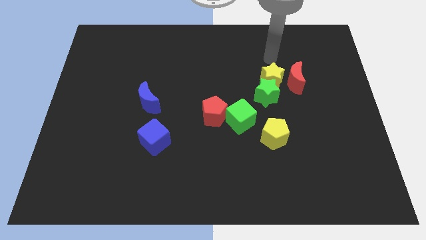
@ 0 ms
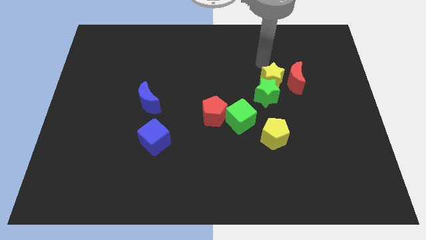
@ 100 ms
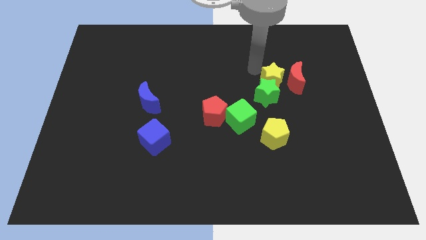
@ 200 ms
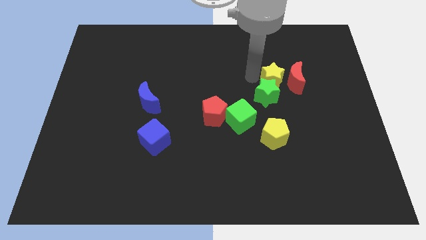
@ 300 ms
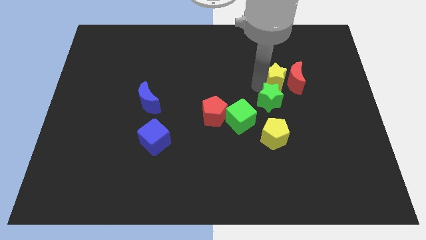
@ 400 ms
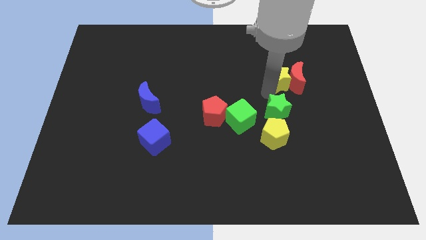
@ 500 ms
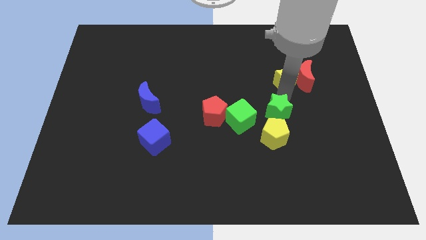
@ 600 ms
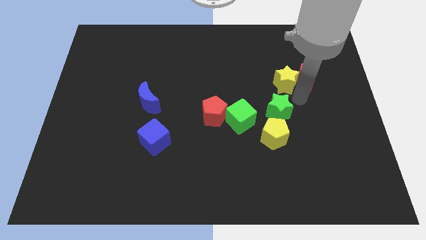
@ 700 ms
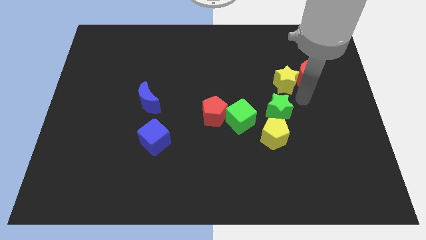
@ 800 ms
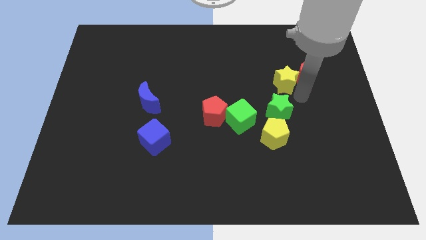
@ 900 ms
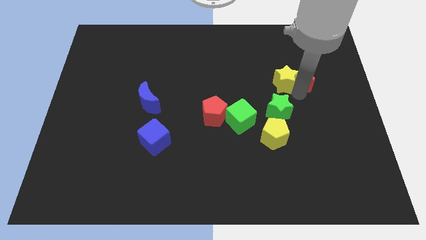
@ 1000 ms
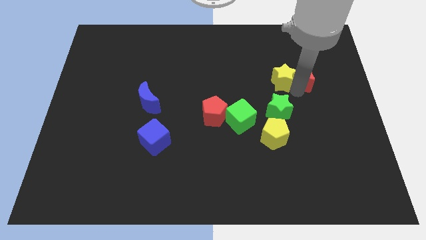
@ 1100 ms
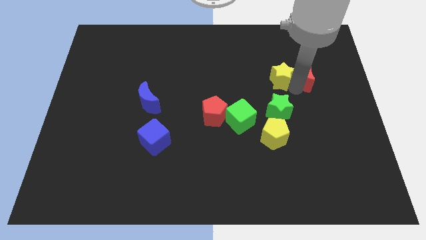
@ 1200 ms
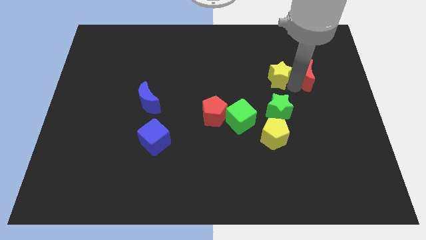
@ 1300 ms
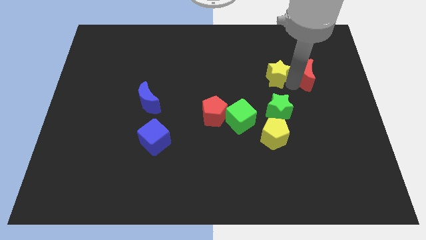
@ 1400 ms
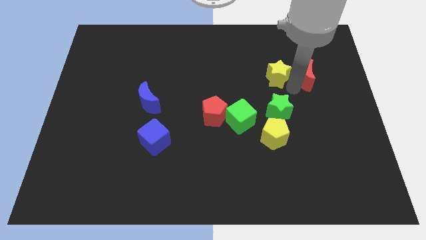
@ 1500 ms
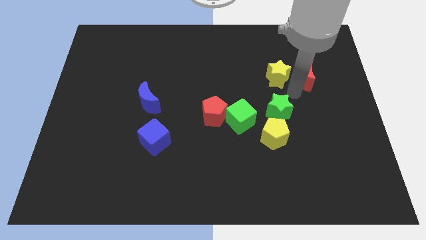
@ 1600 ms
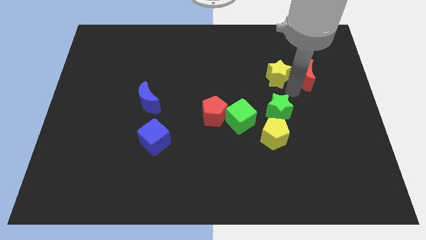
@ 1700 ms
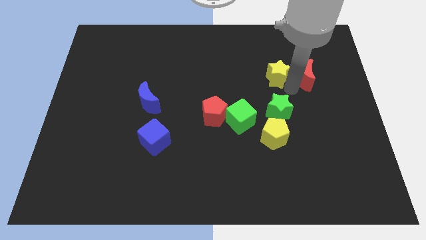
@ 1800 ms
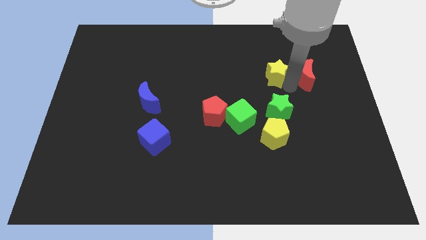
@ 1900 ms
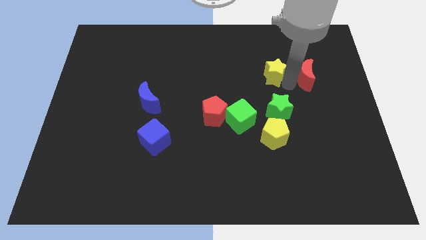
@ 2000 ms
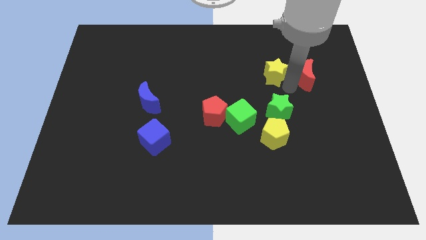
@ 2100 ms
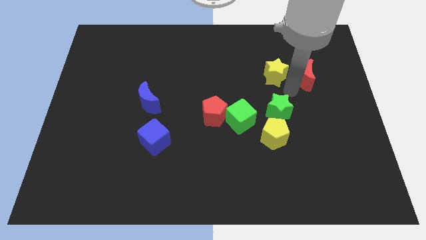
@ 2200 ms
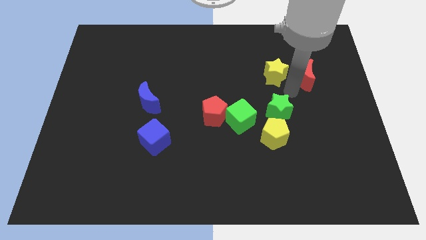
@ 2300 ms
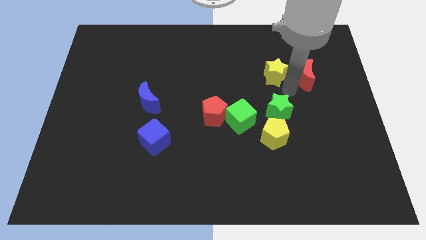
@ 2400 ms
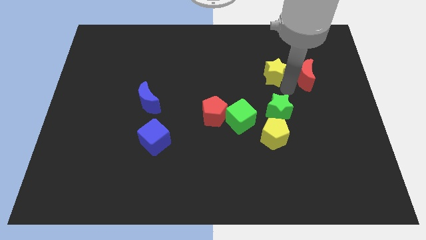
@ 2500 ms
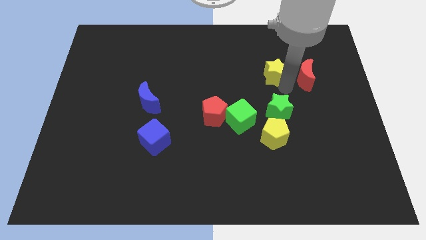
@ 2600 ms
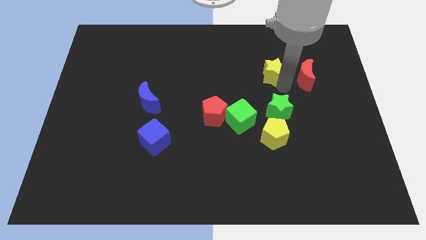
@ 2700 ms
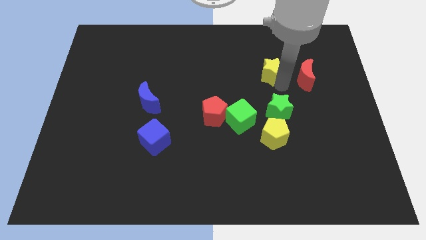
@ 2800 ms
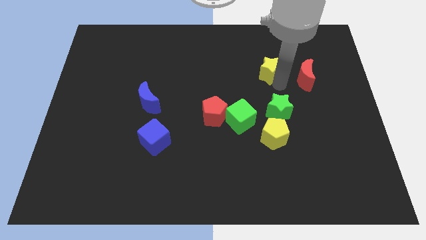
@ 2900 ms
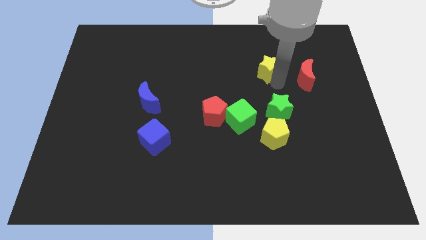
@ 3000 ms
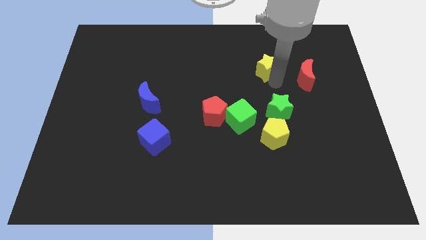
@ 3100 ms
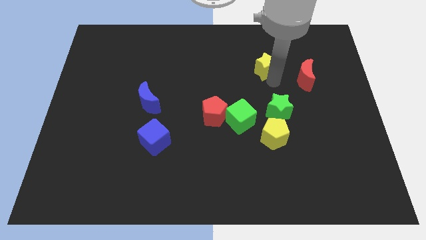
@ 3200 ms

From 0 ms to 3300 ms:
separate the yellow star from the red moon and green star

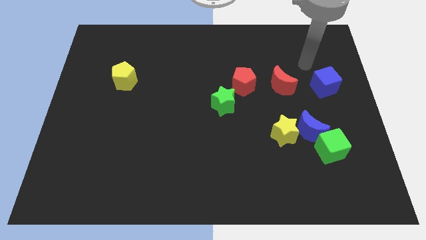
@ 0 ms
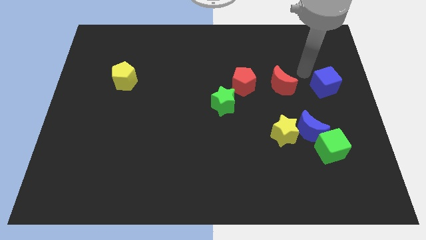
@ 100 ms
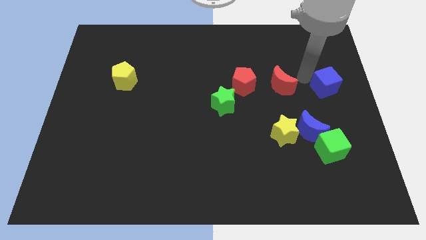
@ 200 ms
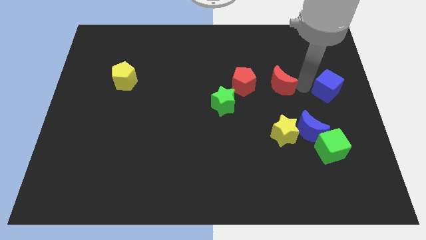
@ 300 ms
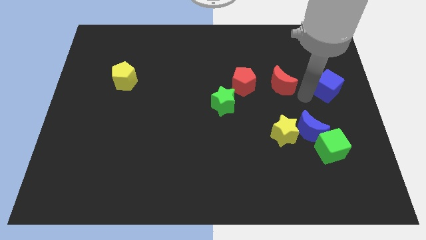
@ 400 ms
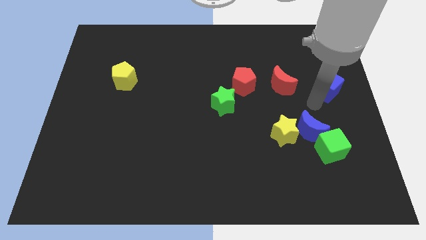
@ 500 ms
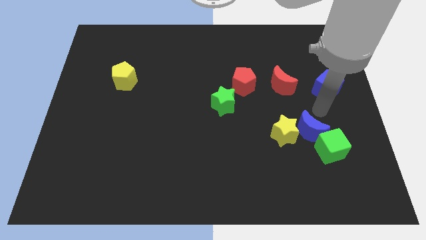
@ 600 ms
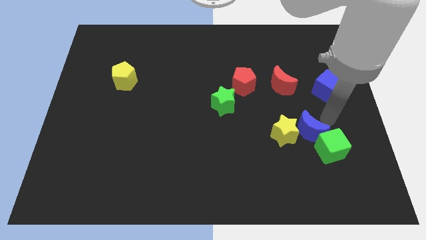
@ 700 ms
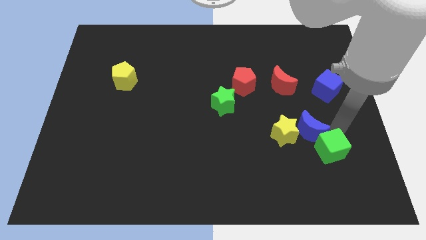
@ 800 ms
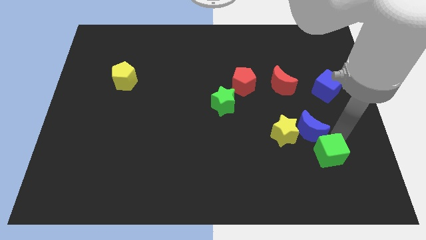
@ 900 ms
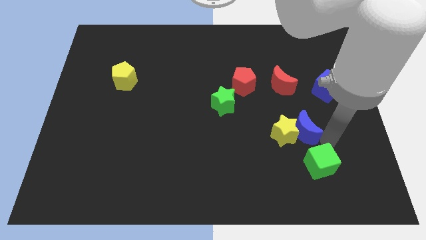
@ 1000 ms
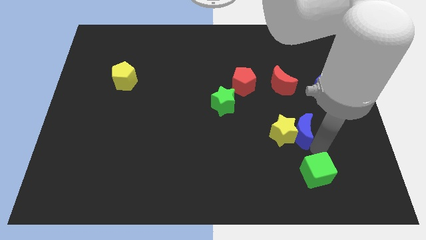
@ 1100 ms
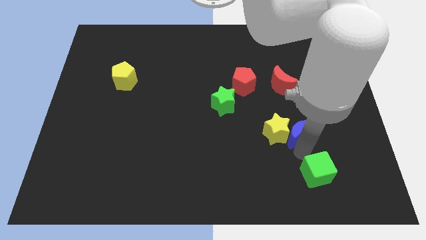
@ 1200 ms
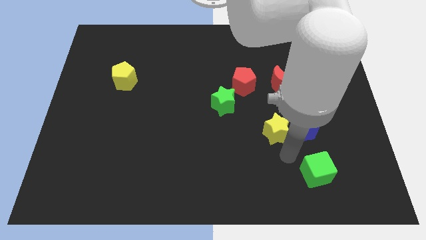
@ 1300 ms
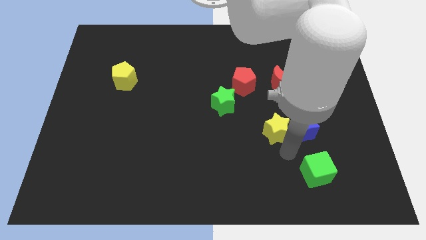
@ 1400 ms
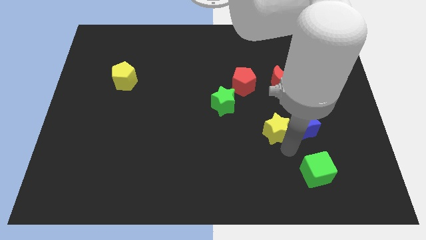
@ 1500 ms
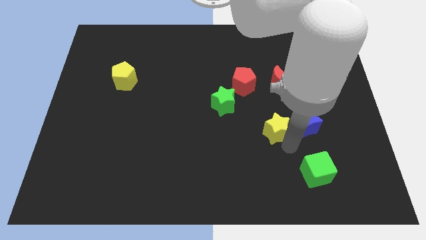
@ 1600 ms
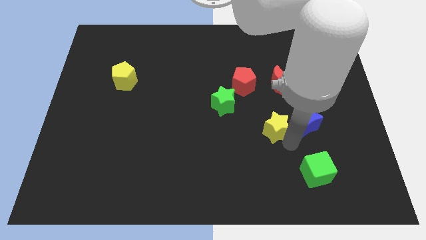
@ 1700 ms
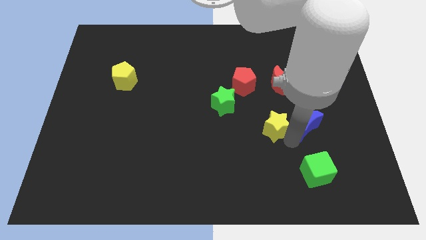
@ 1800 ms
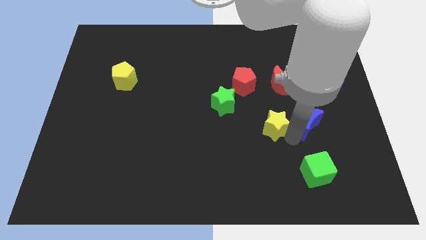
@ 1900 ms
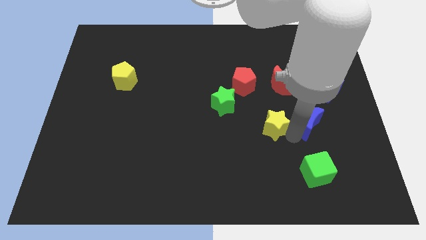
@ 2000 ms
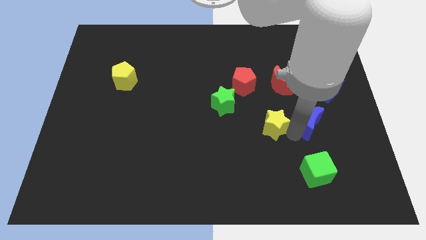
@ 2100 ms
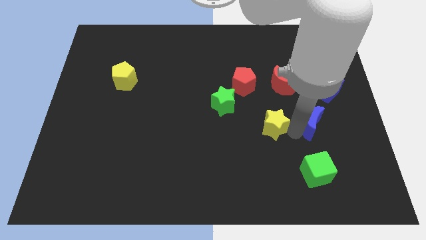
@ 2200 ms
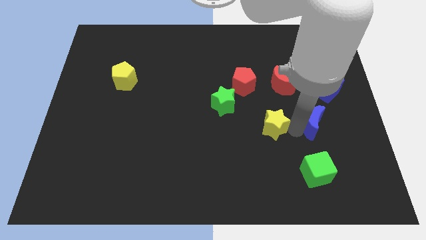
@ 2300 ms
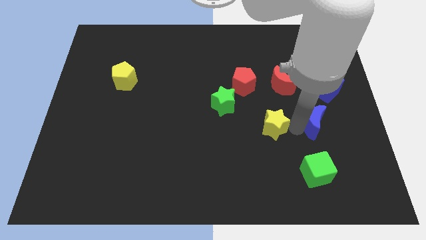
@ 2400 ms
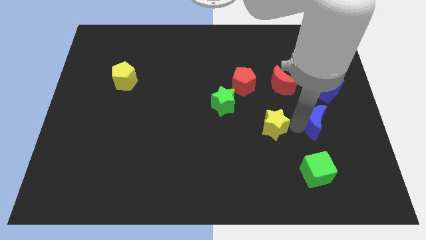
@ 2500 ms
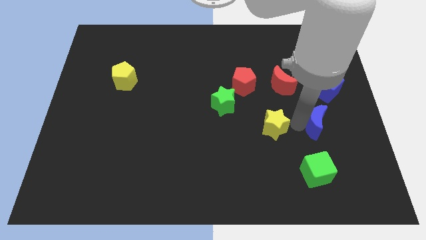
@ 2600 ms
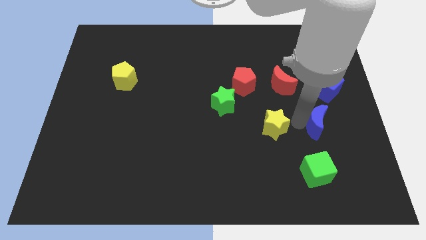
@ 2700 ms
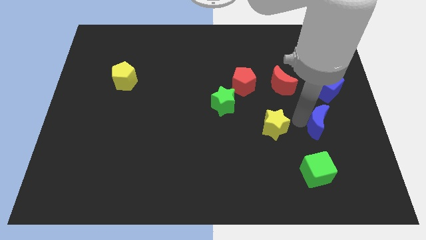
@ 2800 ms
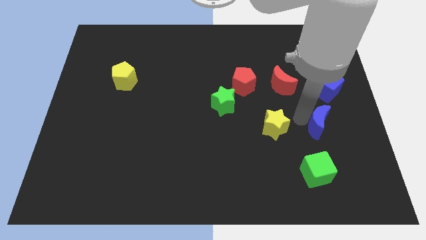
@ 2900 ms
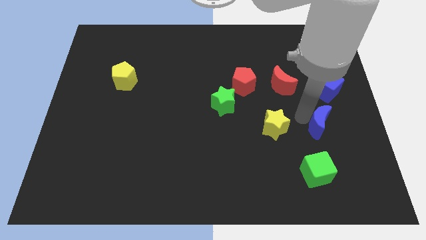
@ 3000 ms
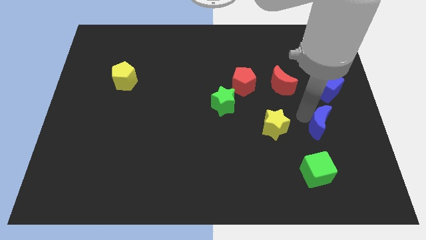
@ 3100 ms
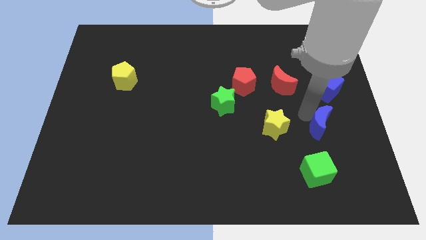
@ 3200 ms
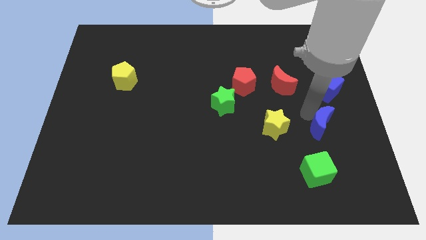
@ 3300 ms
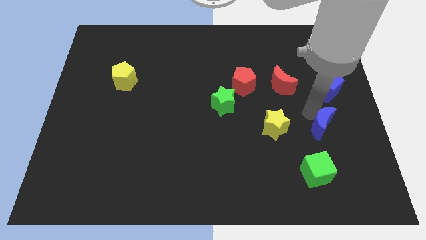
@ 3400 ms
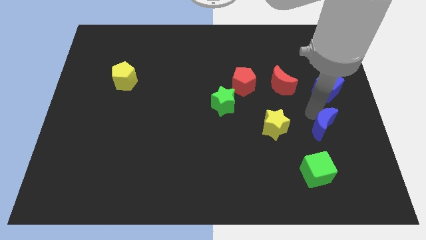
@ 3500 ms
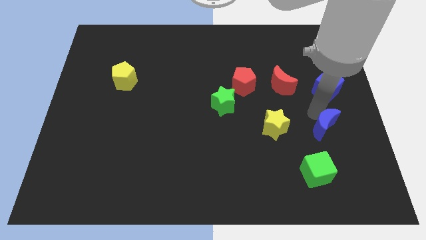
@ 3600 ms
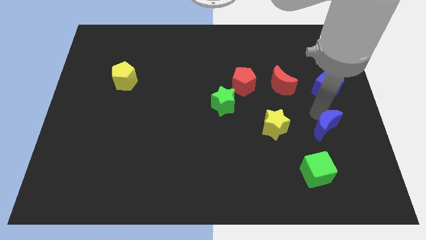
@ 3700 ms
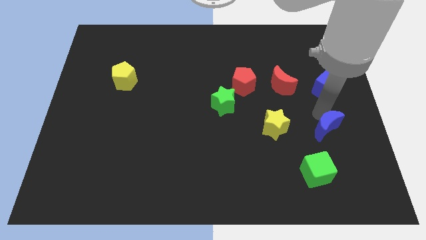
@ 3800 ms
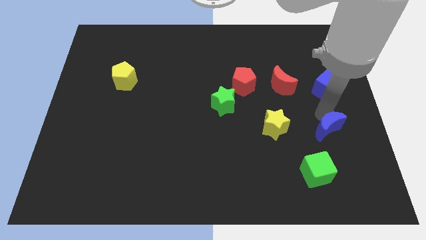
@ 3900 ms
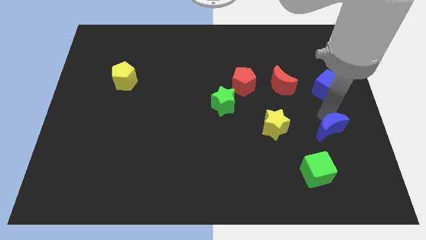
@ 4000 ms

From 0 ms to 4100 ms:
separate the blue moon from the yellow star and green cube

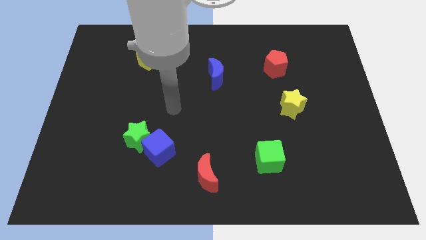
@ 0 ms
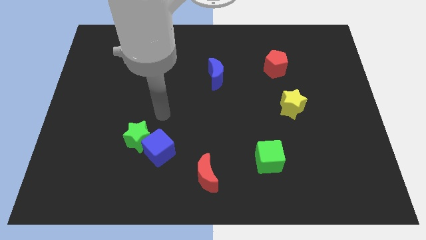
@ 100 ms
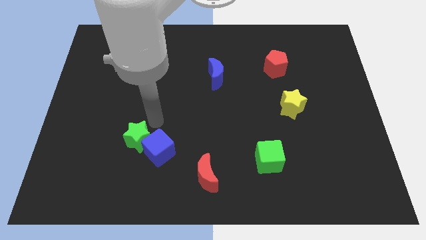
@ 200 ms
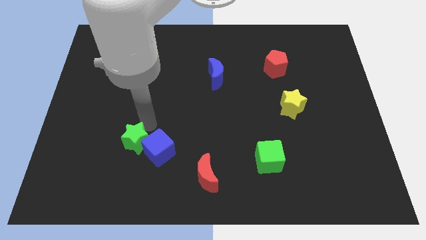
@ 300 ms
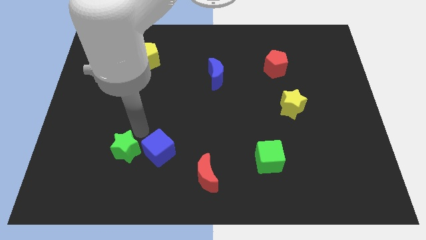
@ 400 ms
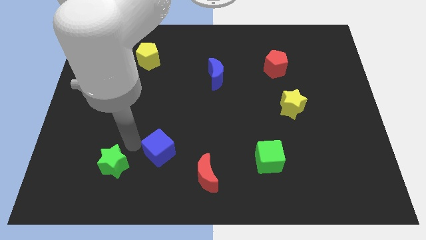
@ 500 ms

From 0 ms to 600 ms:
separate the blue cube from the green star

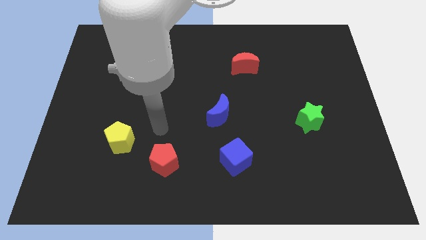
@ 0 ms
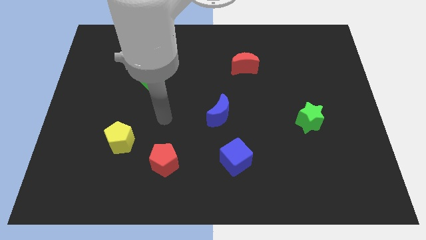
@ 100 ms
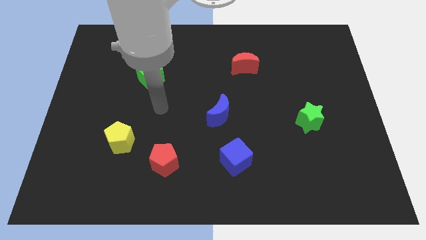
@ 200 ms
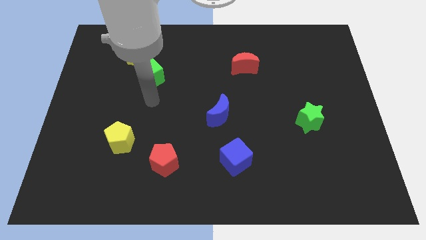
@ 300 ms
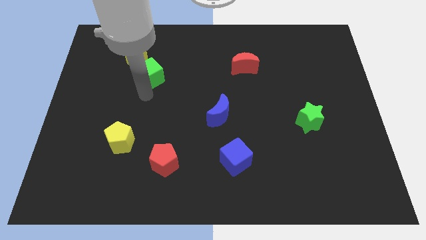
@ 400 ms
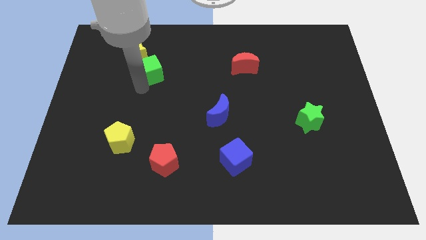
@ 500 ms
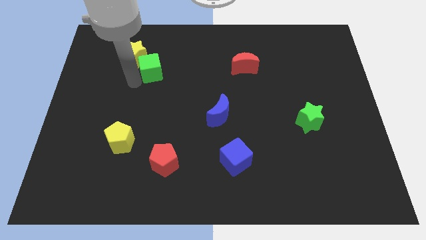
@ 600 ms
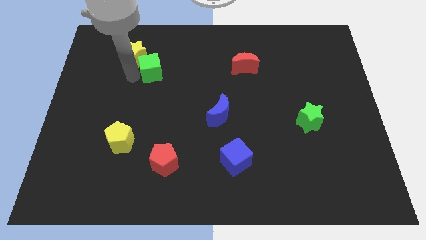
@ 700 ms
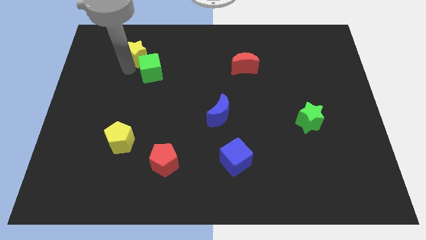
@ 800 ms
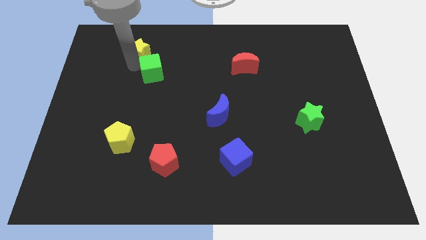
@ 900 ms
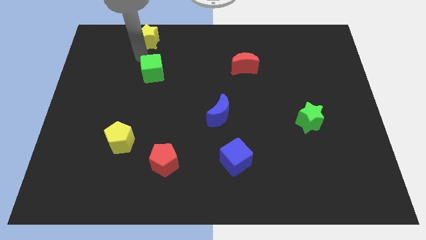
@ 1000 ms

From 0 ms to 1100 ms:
separate the green cube from the yellow star
